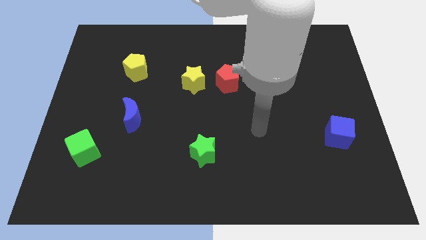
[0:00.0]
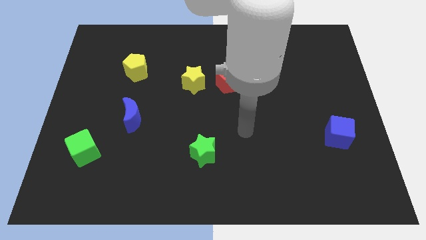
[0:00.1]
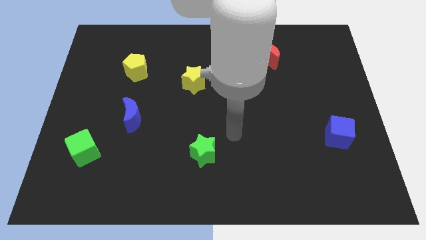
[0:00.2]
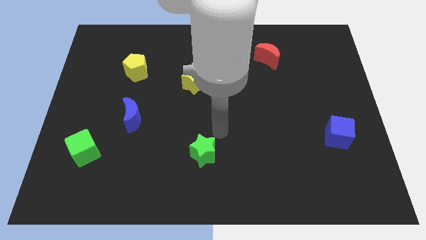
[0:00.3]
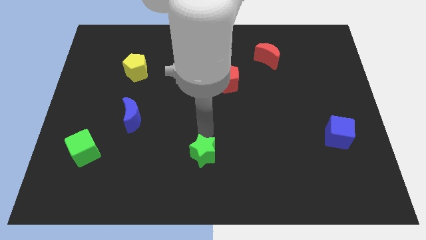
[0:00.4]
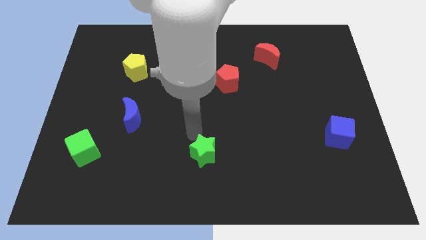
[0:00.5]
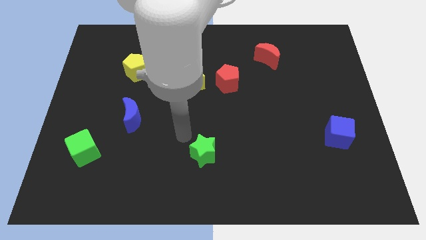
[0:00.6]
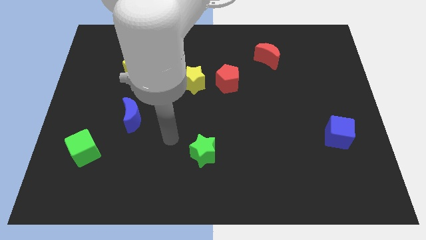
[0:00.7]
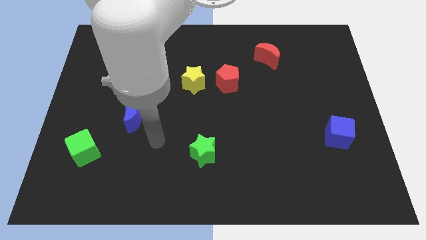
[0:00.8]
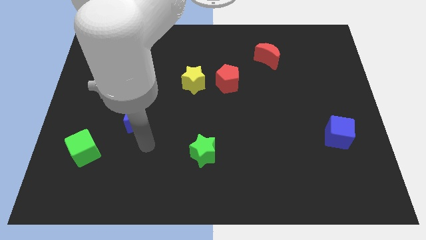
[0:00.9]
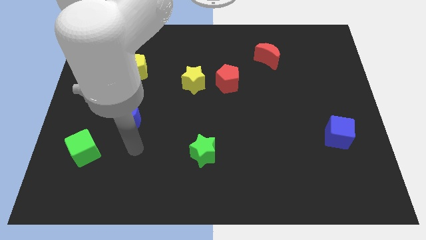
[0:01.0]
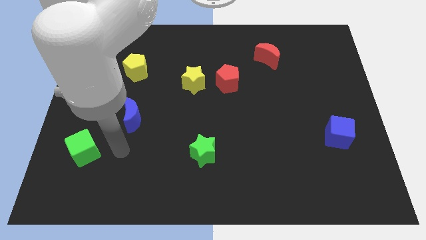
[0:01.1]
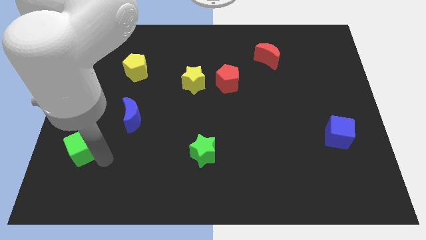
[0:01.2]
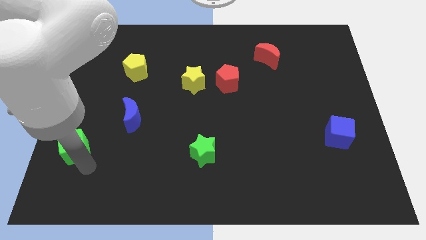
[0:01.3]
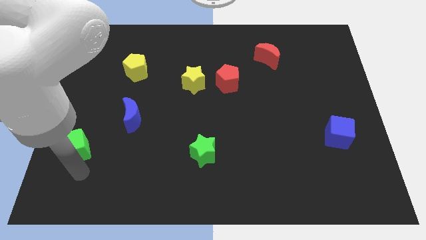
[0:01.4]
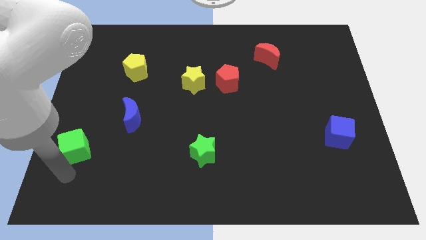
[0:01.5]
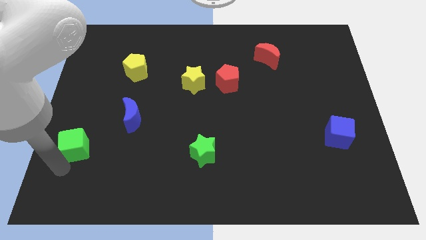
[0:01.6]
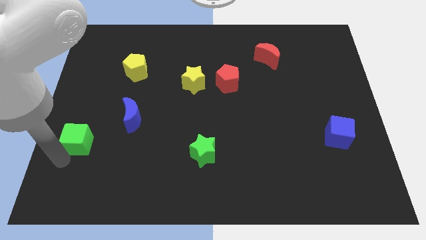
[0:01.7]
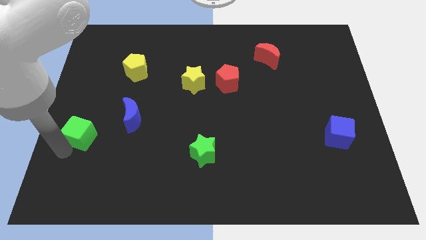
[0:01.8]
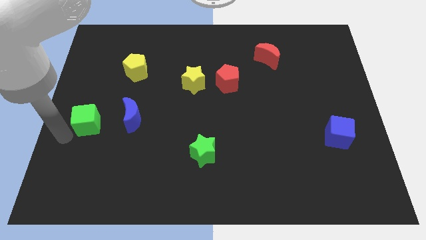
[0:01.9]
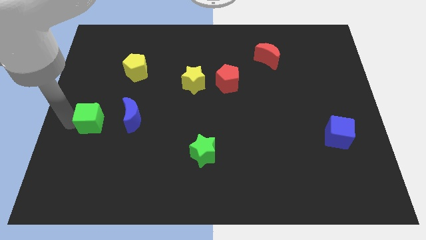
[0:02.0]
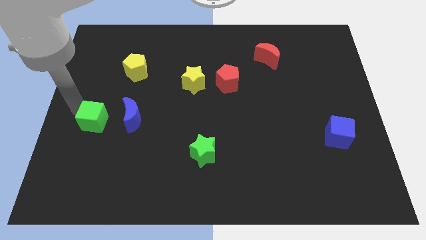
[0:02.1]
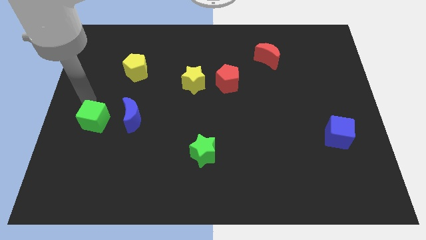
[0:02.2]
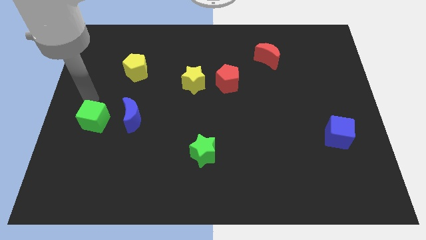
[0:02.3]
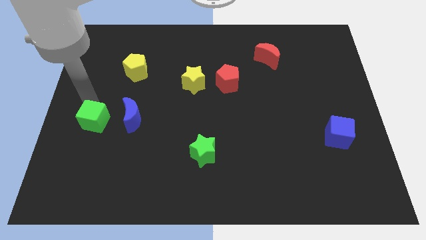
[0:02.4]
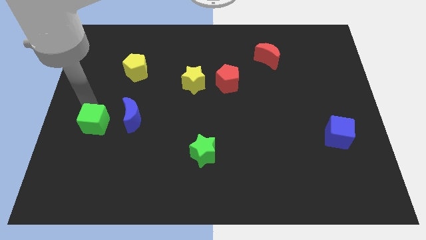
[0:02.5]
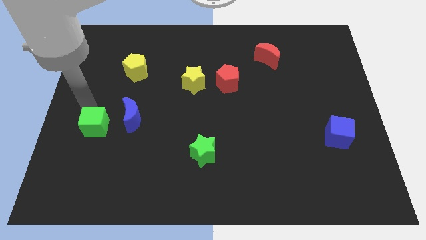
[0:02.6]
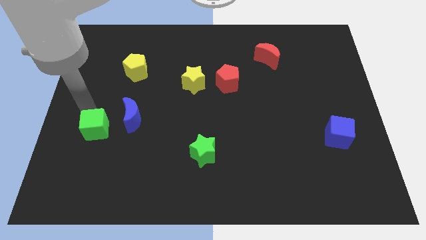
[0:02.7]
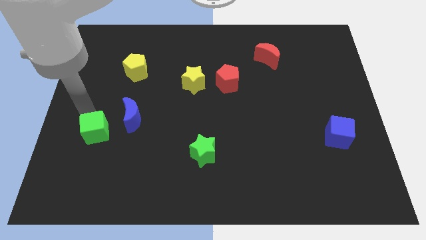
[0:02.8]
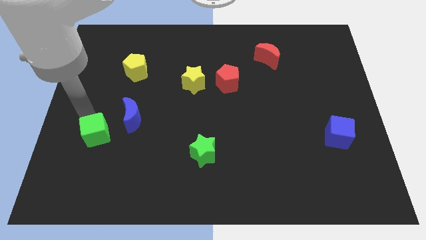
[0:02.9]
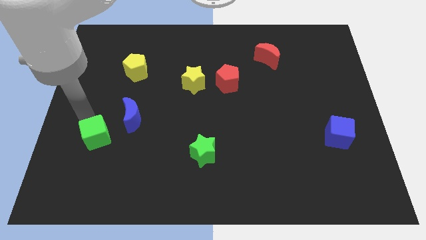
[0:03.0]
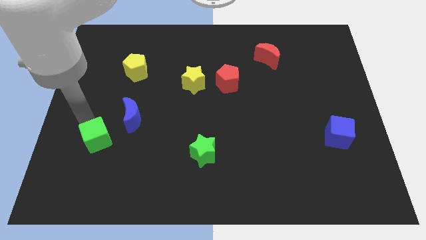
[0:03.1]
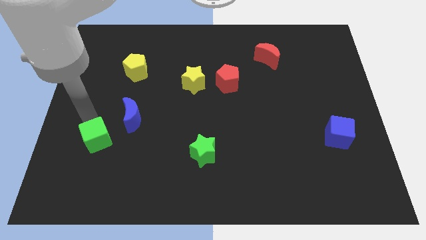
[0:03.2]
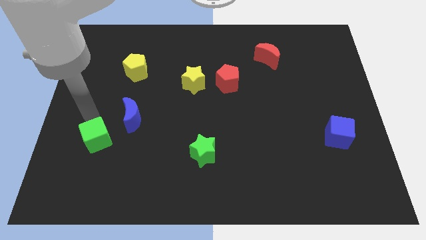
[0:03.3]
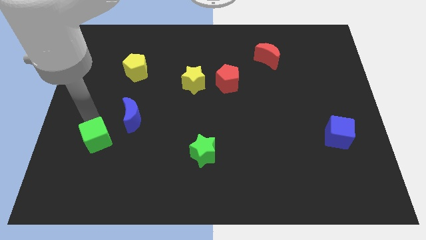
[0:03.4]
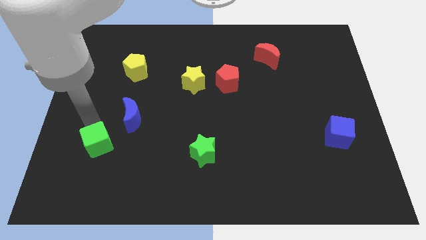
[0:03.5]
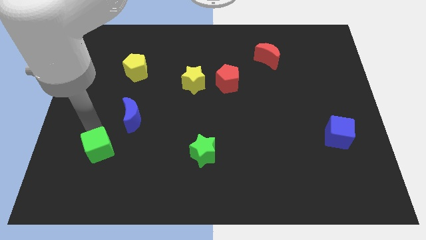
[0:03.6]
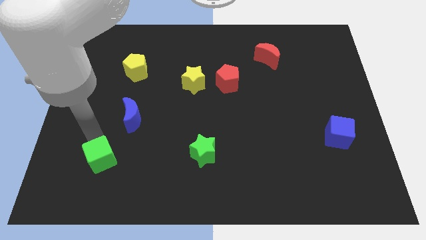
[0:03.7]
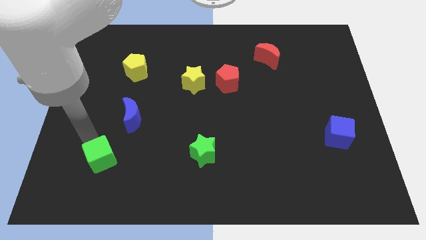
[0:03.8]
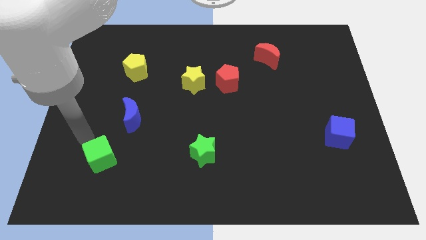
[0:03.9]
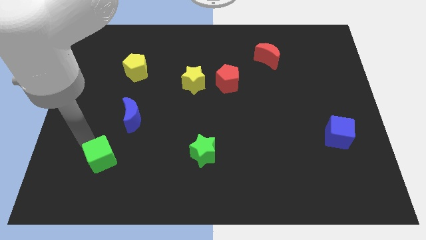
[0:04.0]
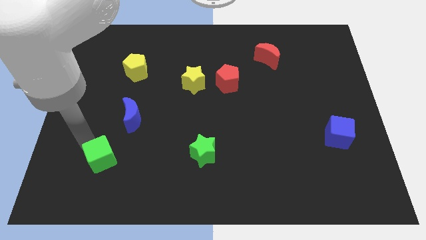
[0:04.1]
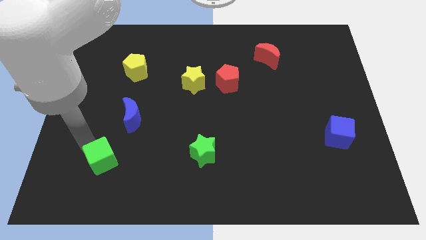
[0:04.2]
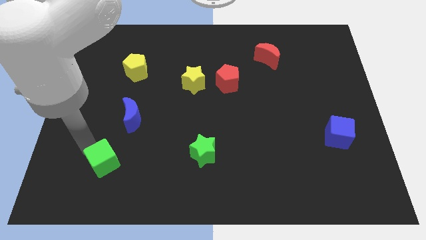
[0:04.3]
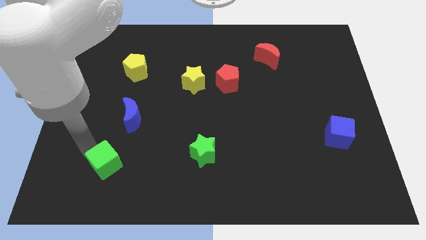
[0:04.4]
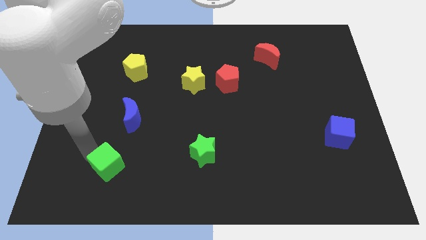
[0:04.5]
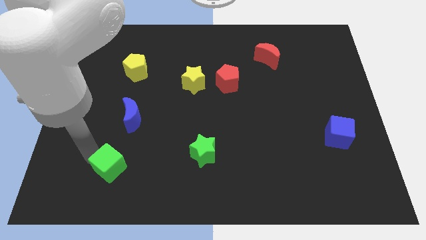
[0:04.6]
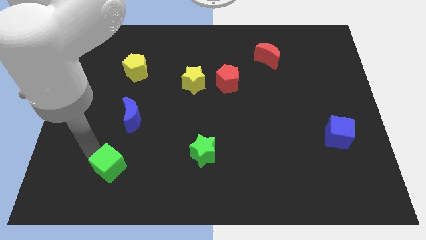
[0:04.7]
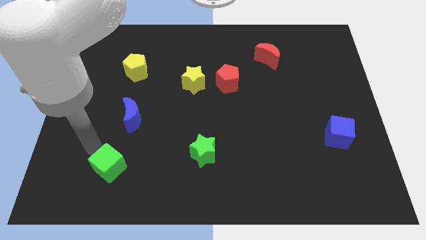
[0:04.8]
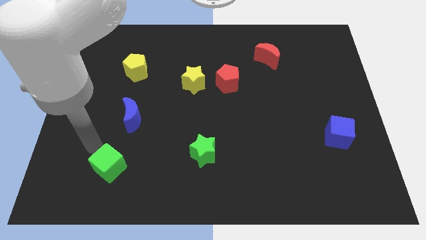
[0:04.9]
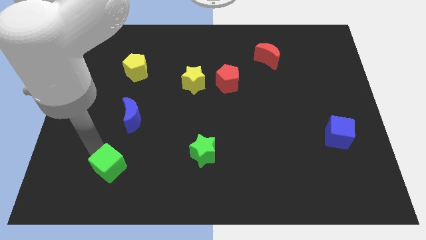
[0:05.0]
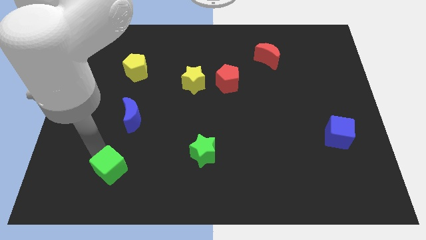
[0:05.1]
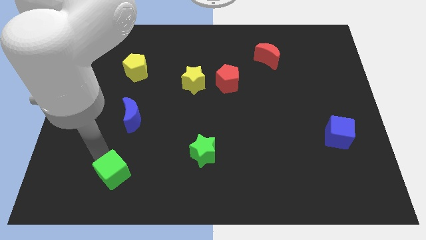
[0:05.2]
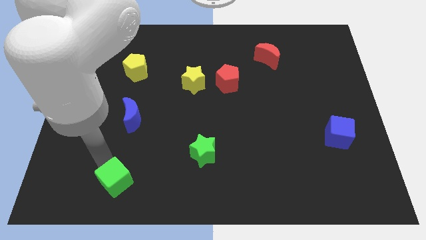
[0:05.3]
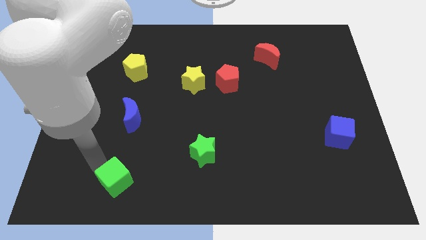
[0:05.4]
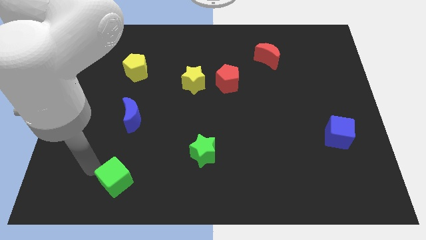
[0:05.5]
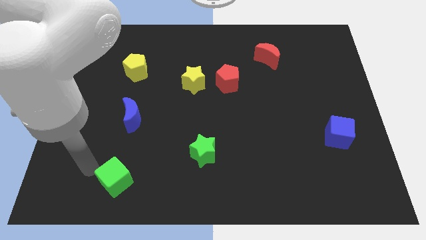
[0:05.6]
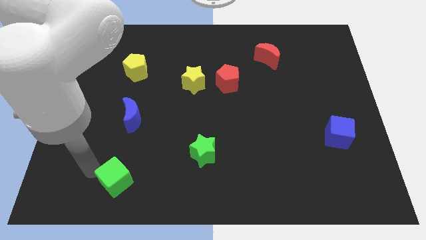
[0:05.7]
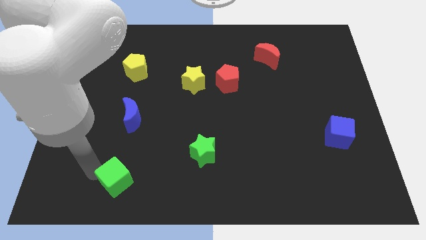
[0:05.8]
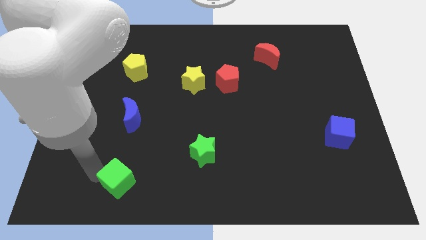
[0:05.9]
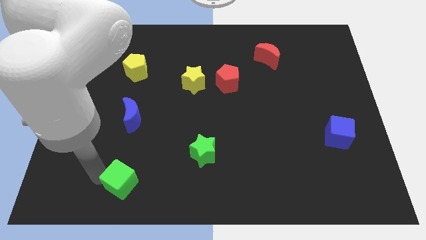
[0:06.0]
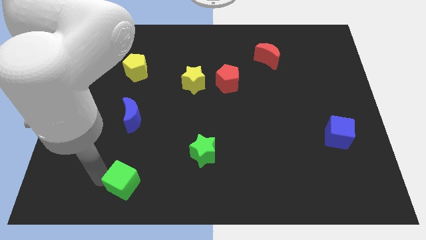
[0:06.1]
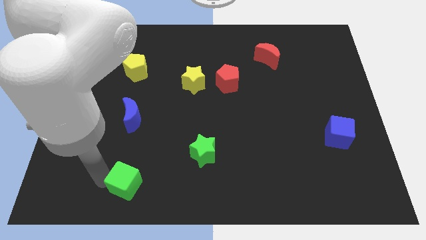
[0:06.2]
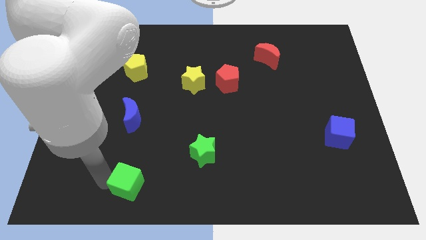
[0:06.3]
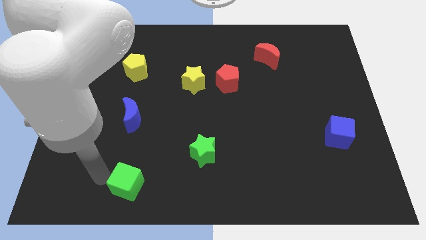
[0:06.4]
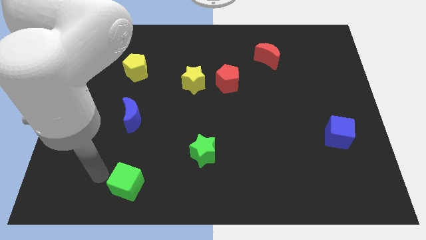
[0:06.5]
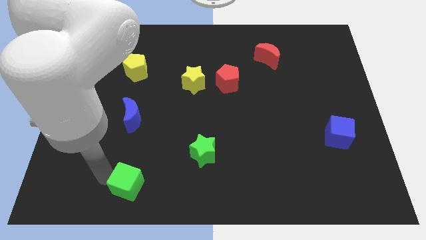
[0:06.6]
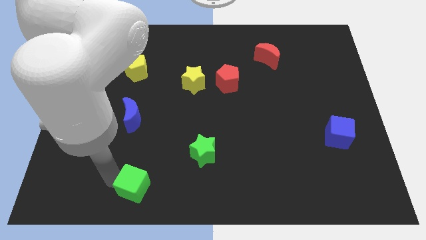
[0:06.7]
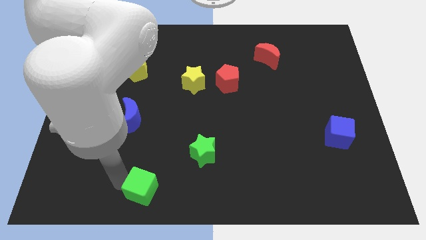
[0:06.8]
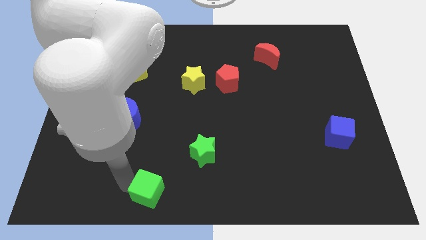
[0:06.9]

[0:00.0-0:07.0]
move the green cube to the bottom side

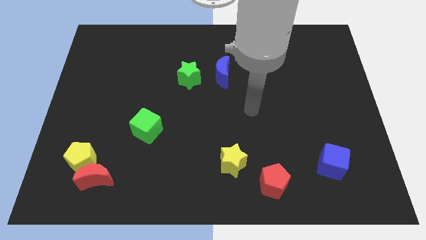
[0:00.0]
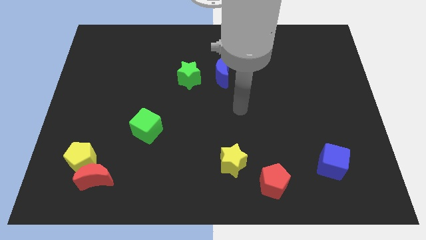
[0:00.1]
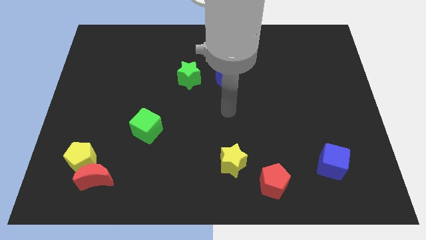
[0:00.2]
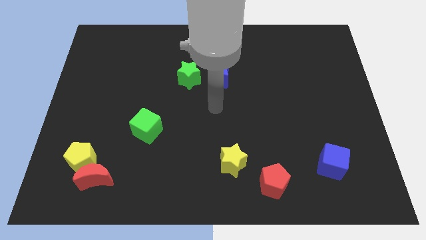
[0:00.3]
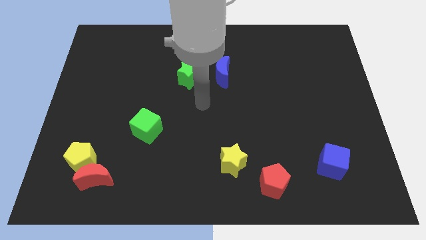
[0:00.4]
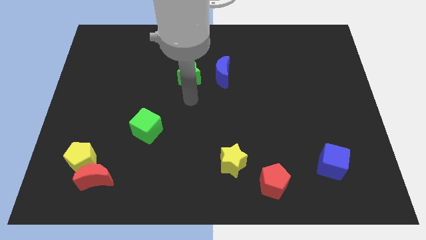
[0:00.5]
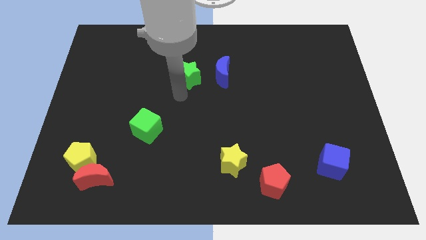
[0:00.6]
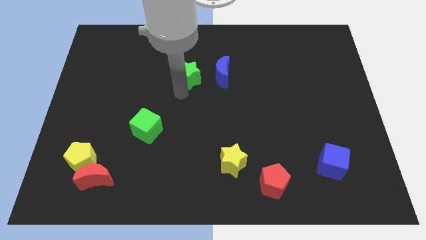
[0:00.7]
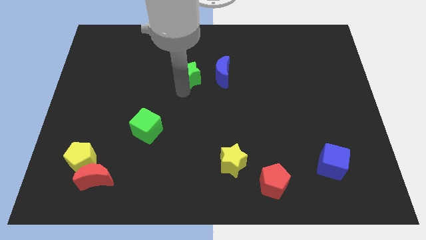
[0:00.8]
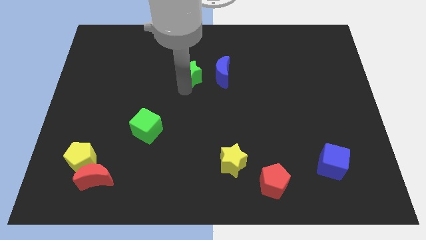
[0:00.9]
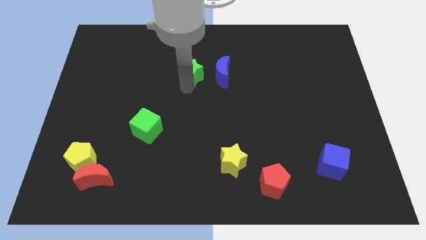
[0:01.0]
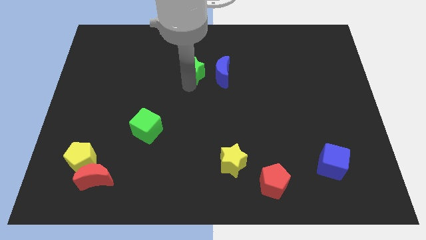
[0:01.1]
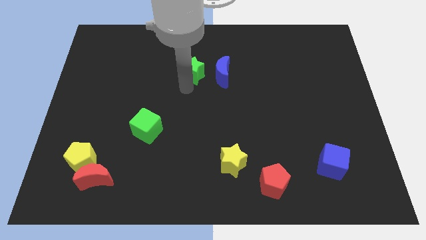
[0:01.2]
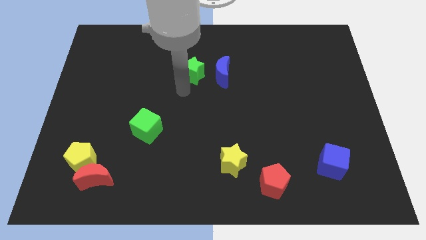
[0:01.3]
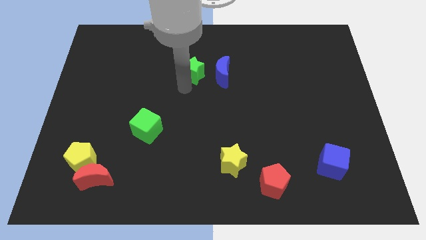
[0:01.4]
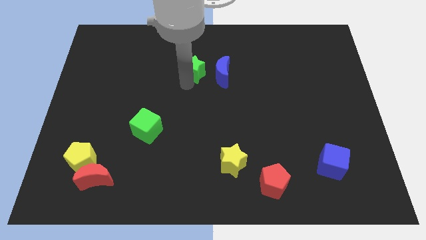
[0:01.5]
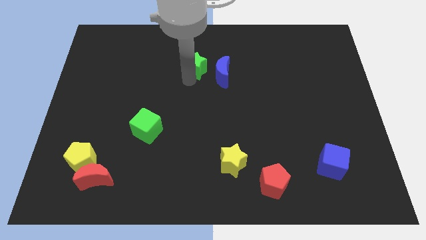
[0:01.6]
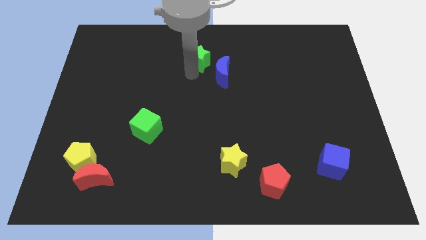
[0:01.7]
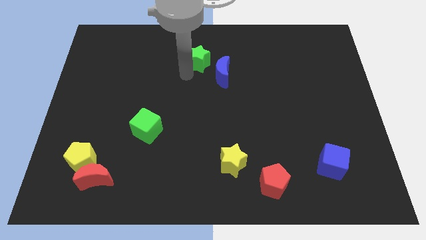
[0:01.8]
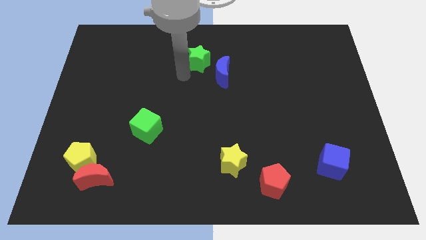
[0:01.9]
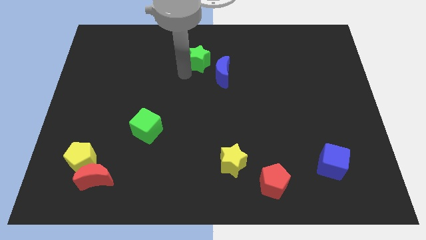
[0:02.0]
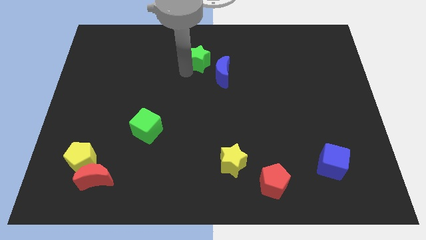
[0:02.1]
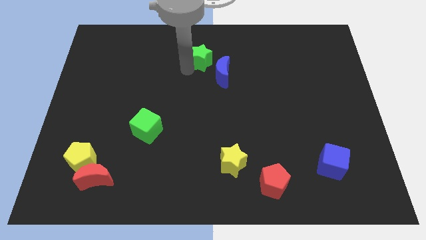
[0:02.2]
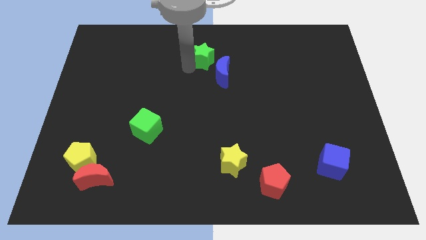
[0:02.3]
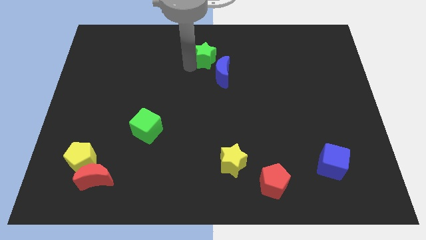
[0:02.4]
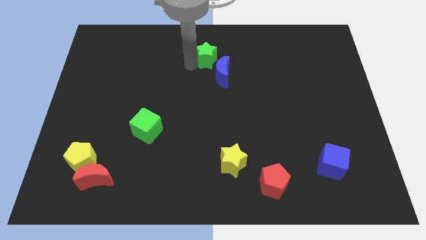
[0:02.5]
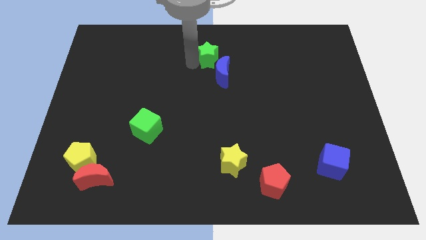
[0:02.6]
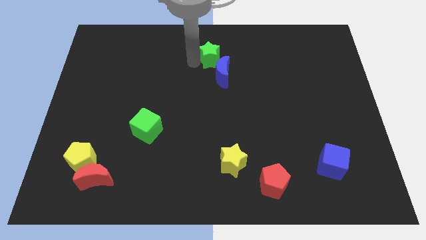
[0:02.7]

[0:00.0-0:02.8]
move the green star to the towards your base
